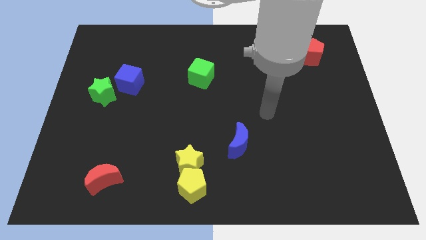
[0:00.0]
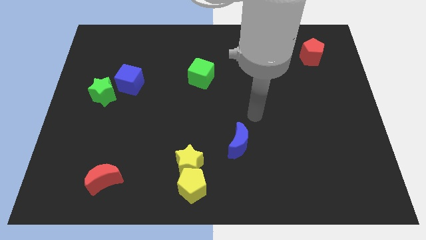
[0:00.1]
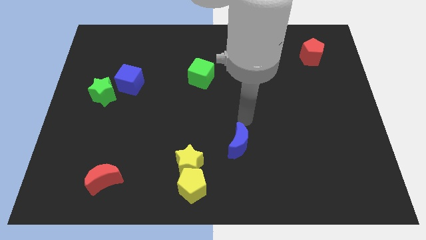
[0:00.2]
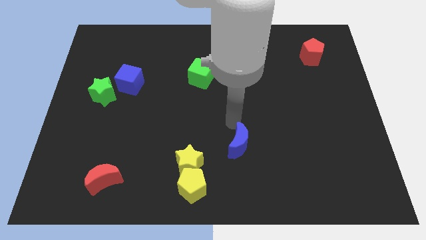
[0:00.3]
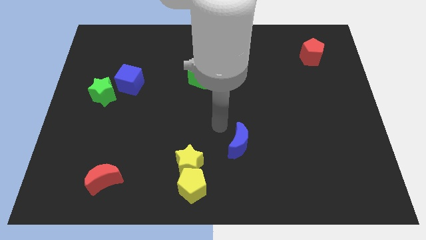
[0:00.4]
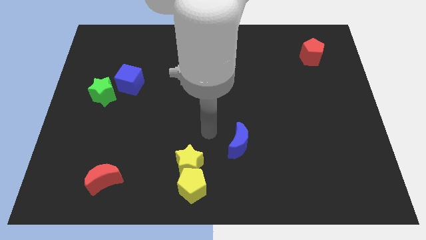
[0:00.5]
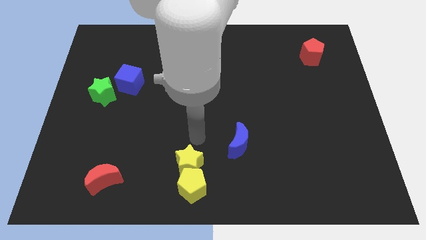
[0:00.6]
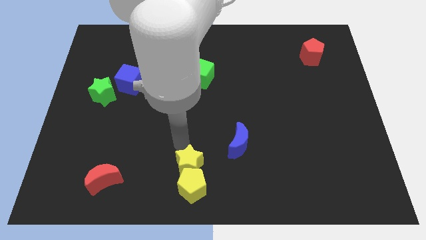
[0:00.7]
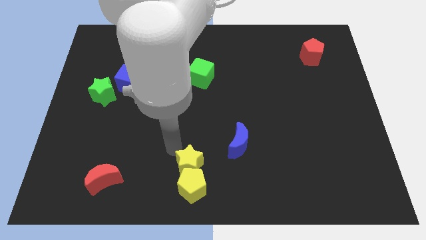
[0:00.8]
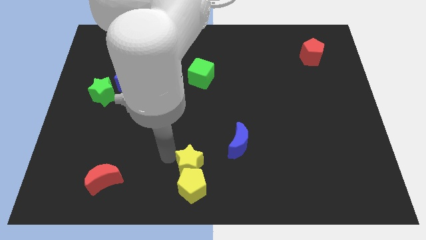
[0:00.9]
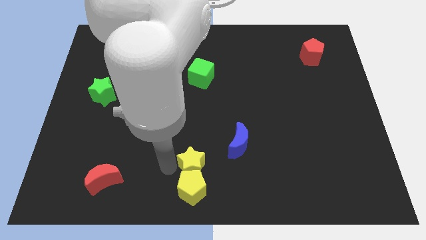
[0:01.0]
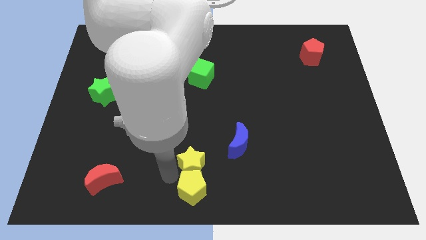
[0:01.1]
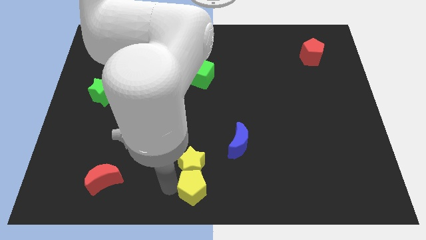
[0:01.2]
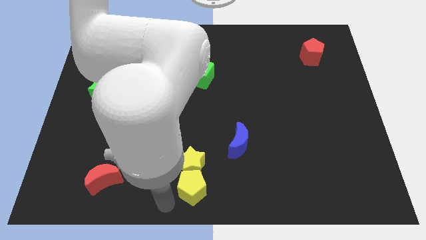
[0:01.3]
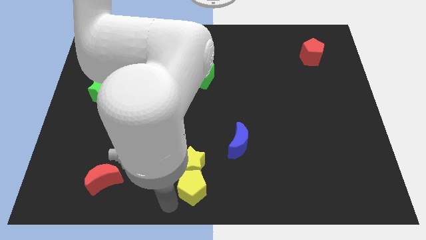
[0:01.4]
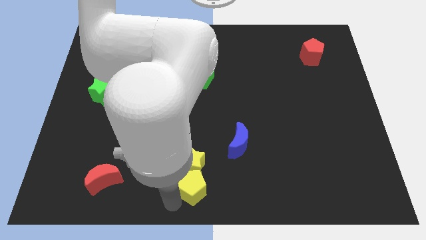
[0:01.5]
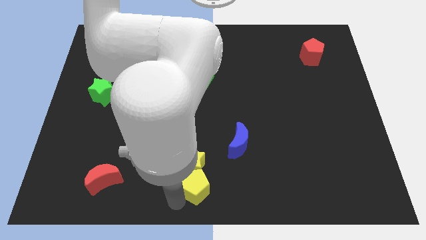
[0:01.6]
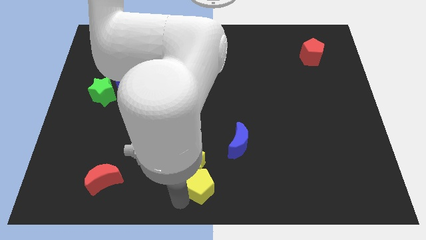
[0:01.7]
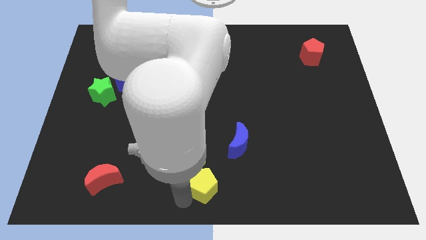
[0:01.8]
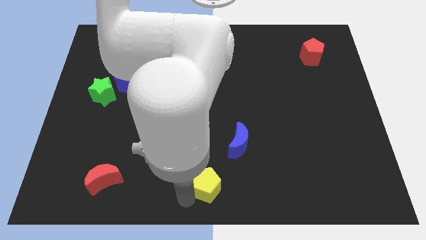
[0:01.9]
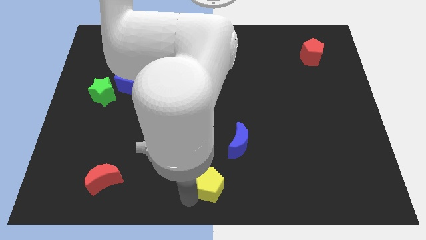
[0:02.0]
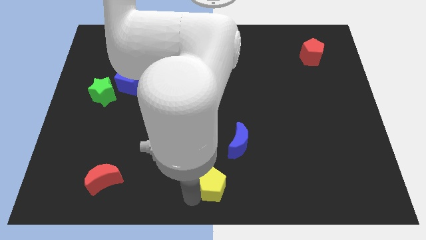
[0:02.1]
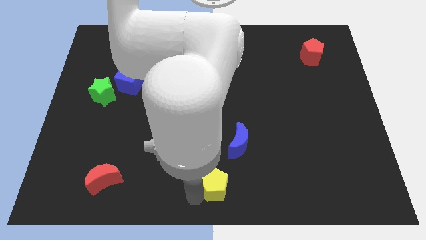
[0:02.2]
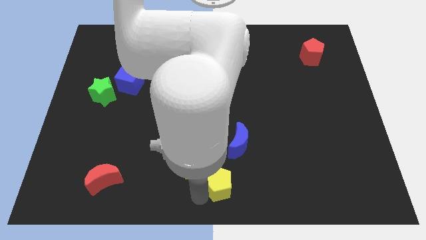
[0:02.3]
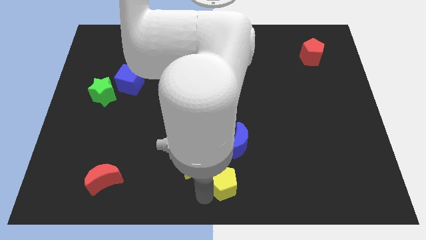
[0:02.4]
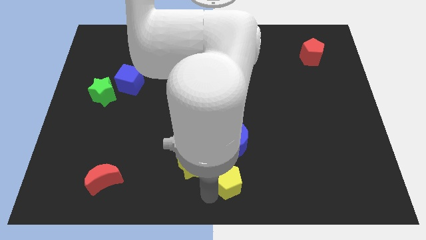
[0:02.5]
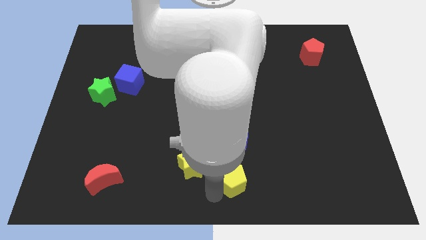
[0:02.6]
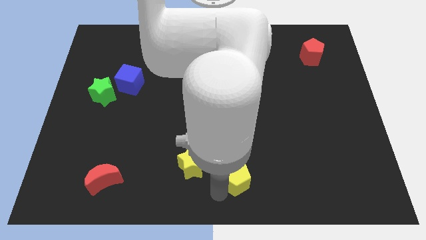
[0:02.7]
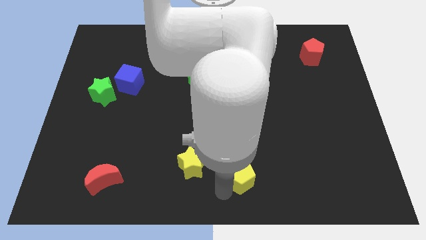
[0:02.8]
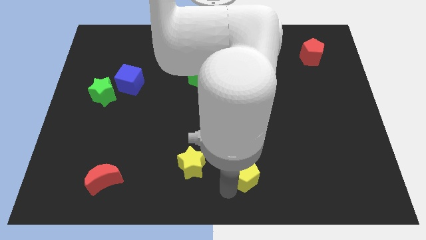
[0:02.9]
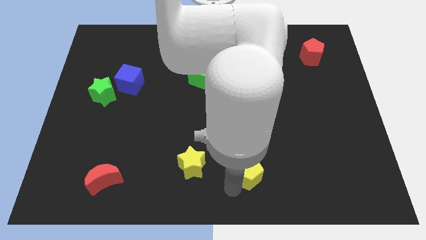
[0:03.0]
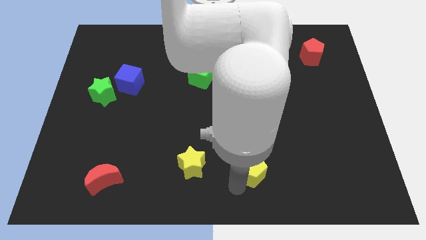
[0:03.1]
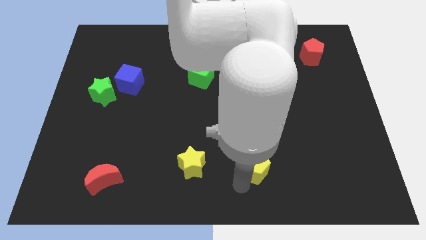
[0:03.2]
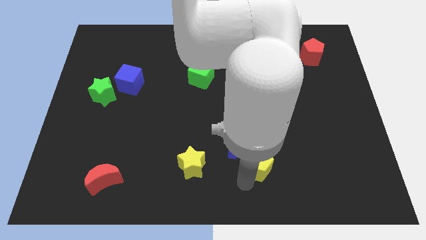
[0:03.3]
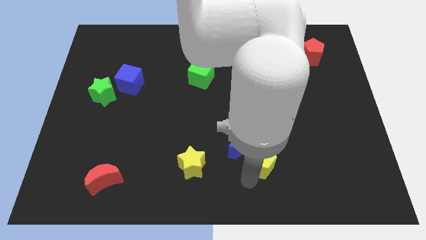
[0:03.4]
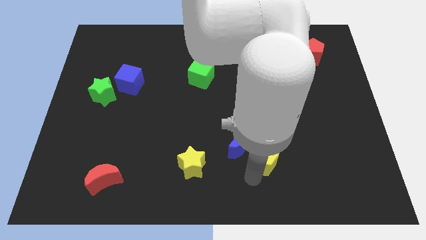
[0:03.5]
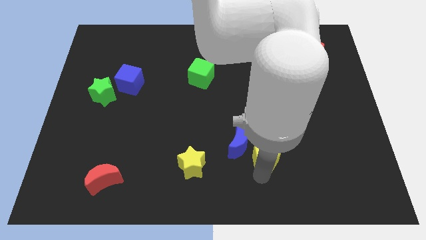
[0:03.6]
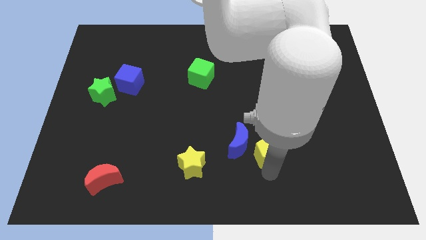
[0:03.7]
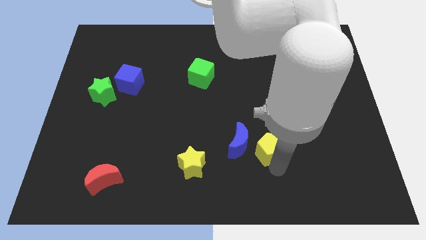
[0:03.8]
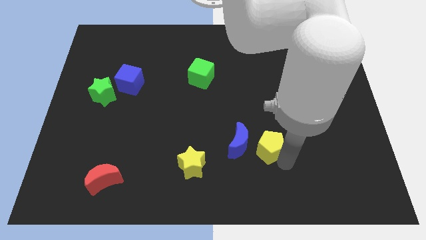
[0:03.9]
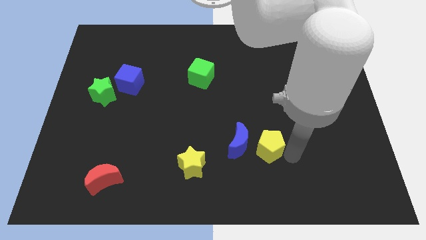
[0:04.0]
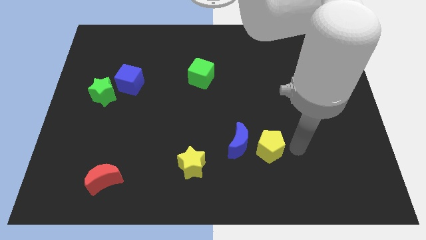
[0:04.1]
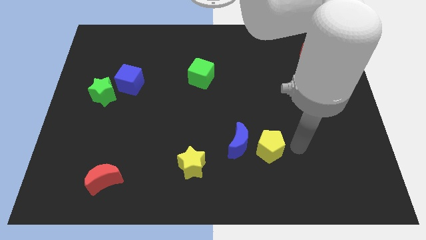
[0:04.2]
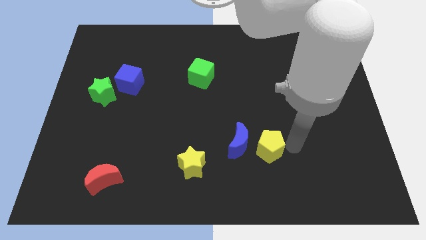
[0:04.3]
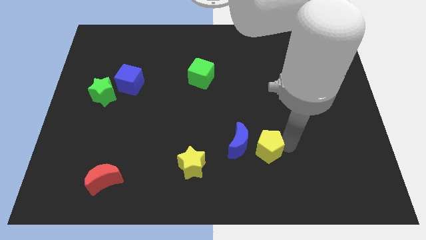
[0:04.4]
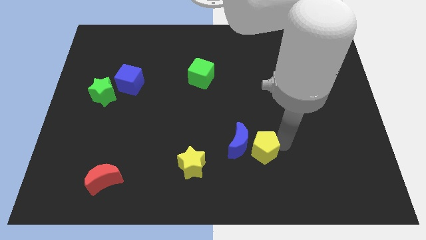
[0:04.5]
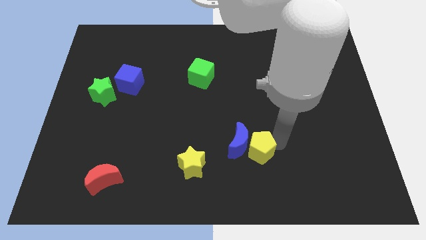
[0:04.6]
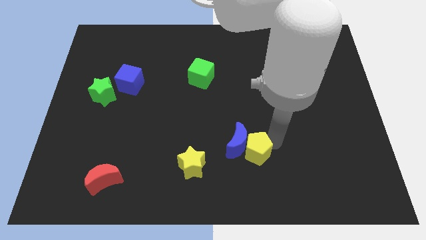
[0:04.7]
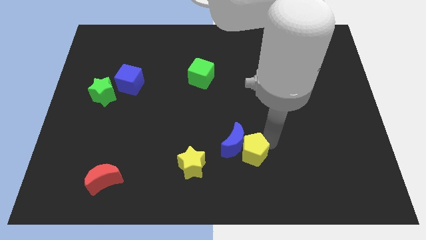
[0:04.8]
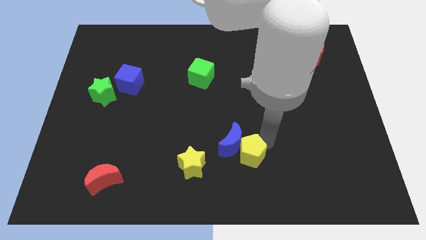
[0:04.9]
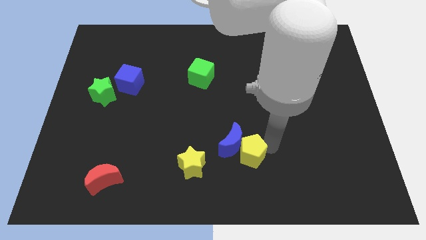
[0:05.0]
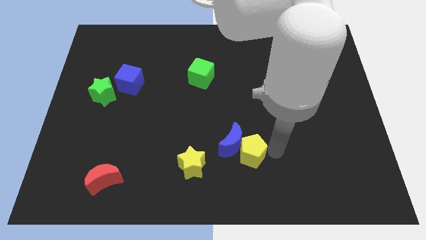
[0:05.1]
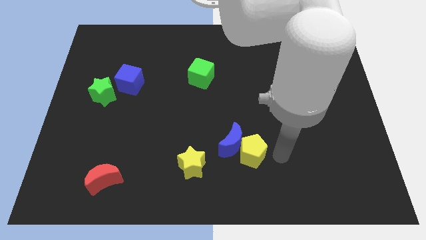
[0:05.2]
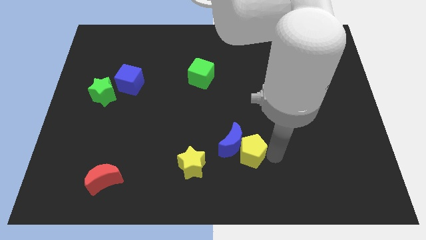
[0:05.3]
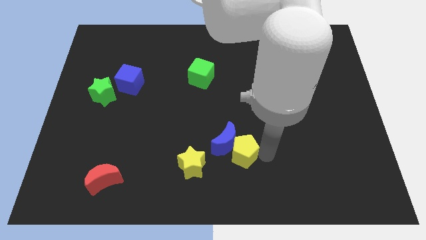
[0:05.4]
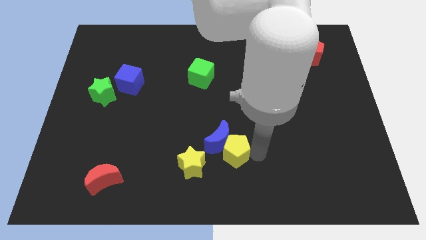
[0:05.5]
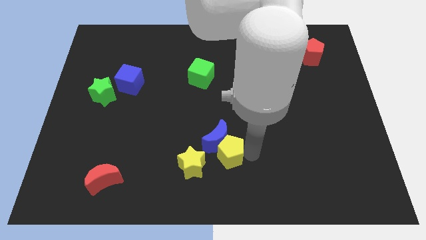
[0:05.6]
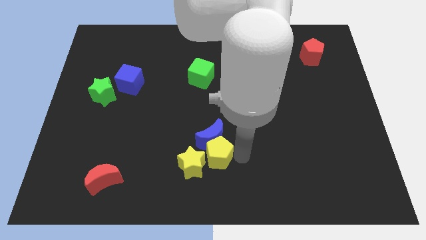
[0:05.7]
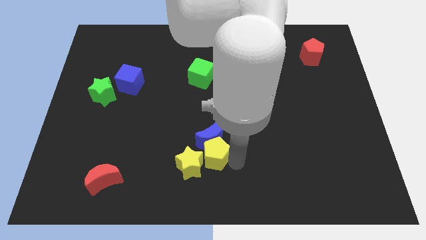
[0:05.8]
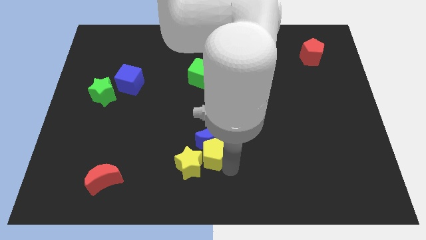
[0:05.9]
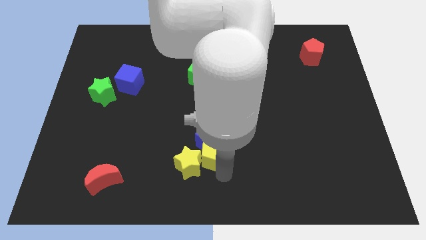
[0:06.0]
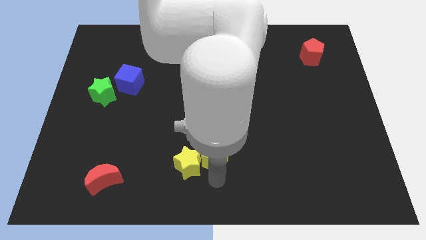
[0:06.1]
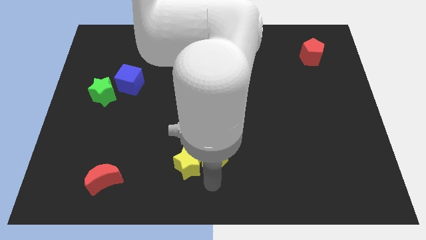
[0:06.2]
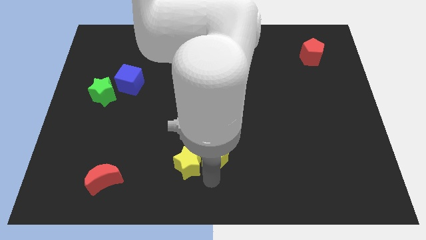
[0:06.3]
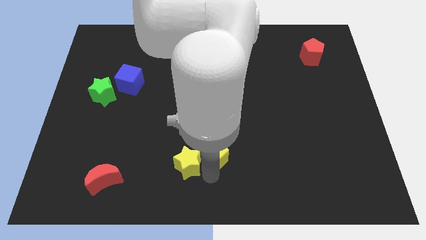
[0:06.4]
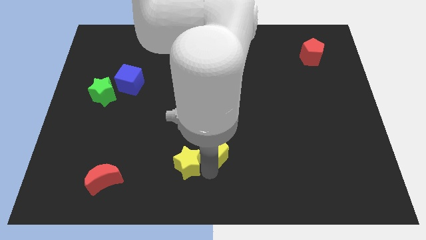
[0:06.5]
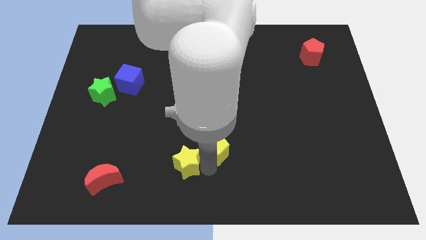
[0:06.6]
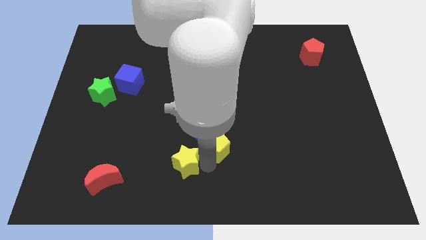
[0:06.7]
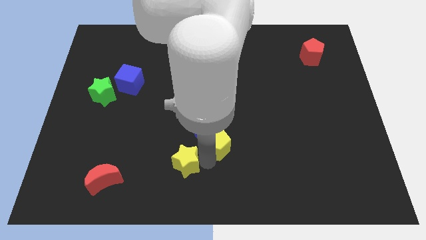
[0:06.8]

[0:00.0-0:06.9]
slide the yellow pentagon to the middle of the board

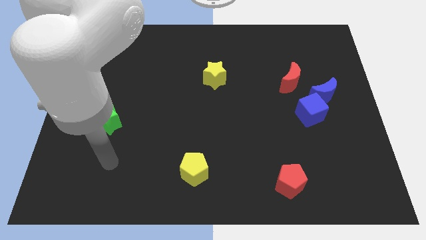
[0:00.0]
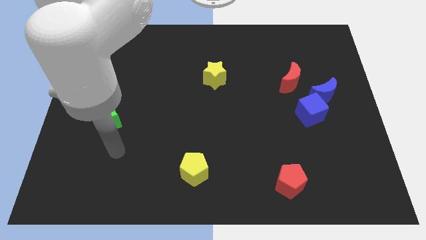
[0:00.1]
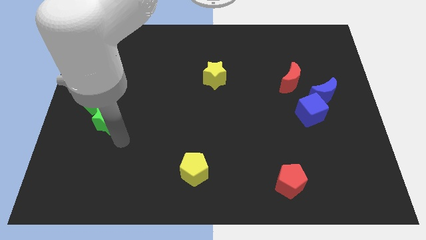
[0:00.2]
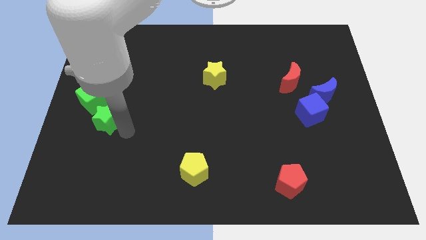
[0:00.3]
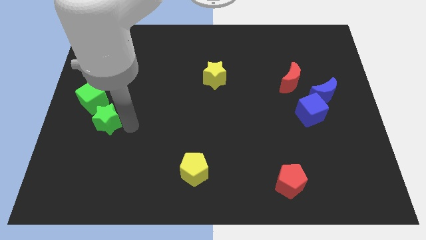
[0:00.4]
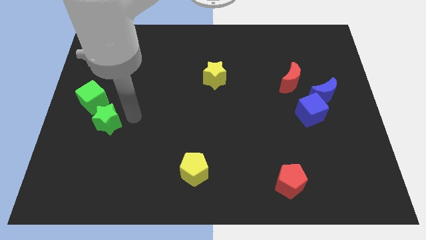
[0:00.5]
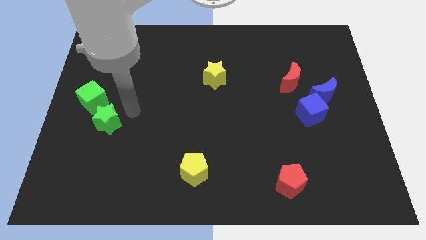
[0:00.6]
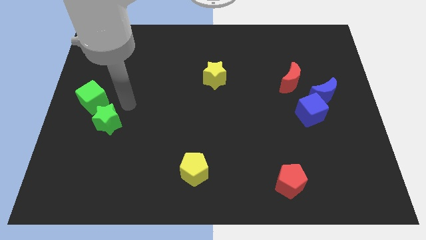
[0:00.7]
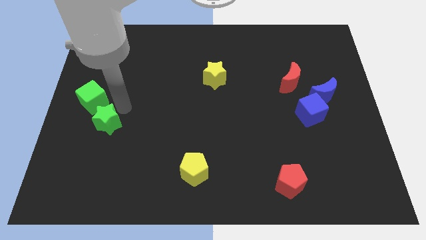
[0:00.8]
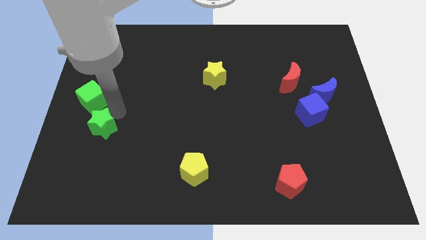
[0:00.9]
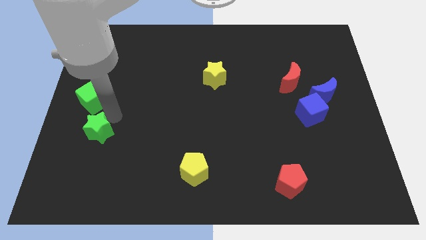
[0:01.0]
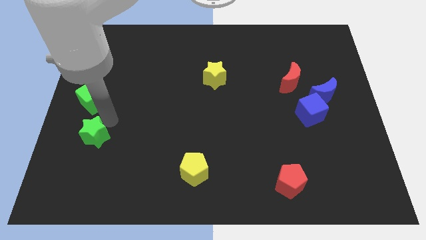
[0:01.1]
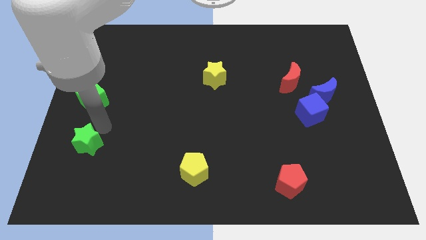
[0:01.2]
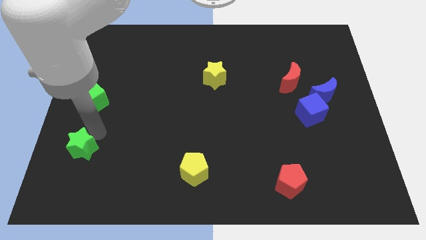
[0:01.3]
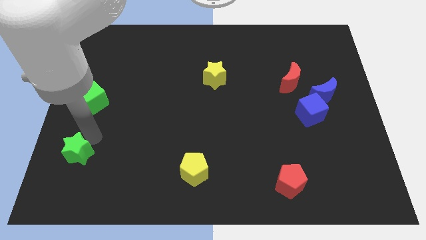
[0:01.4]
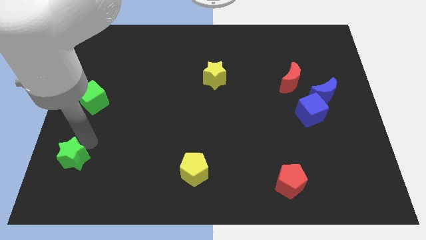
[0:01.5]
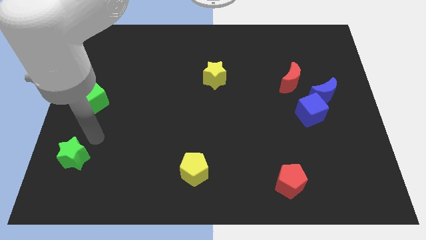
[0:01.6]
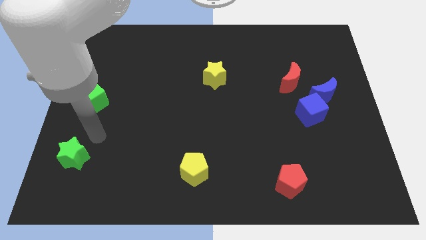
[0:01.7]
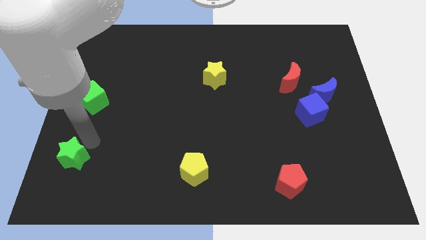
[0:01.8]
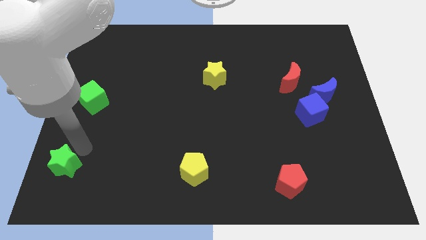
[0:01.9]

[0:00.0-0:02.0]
put the green star to the lower left corner
